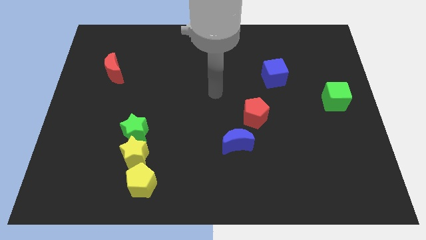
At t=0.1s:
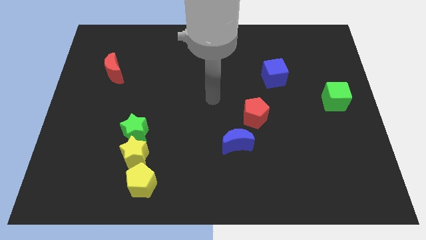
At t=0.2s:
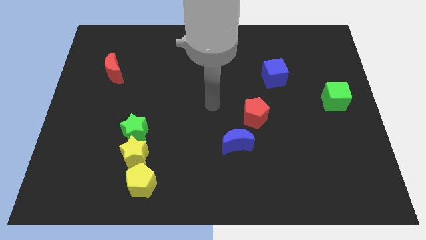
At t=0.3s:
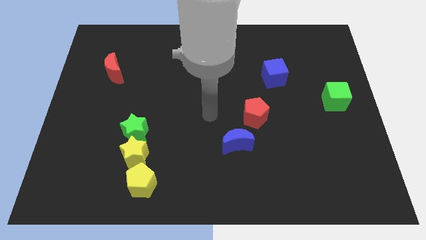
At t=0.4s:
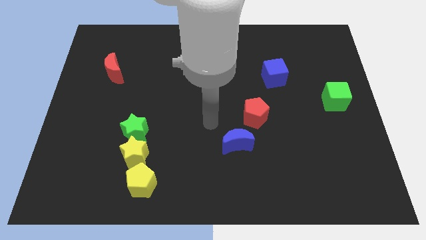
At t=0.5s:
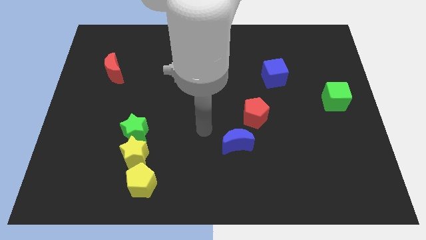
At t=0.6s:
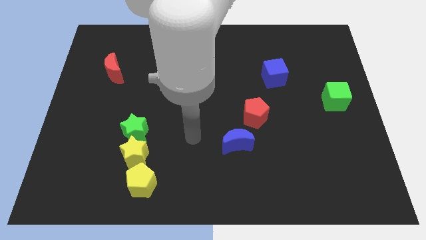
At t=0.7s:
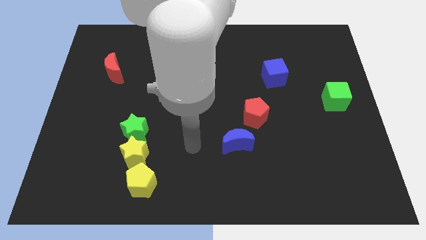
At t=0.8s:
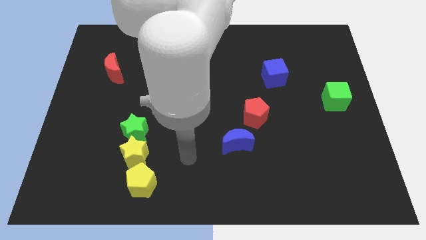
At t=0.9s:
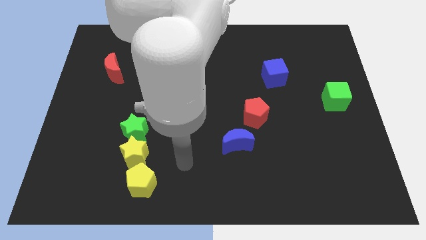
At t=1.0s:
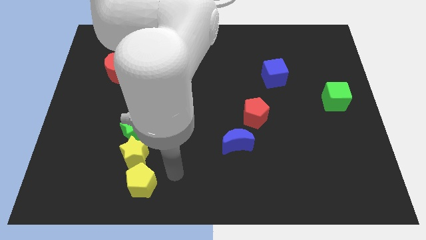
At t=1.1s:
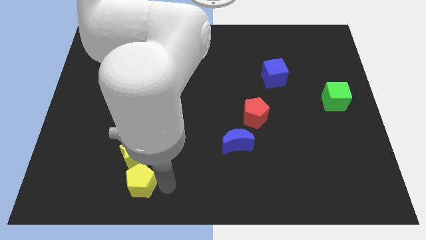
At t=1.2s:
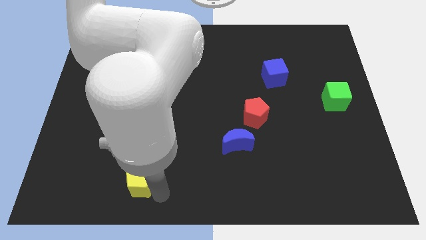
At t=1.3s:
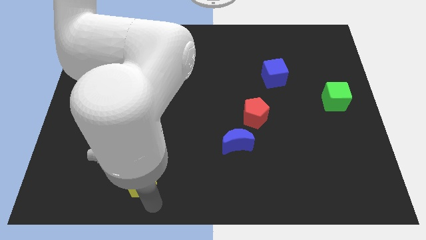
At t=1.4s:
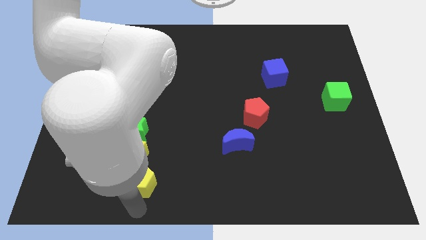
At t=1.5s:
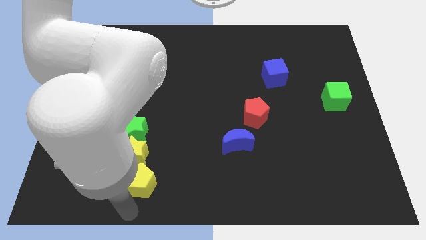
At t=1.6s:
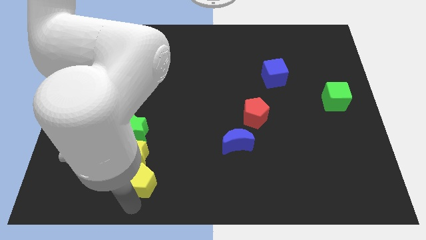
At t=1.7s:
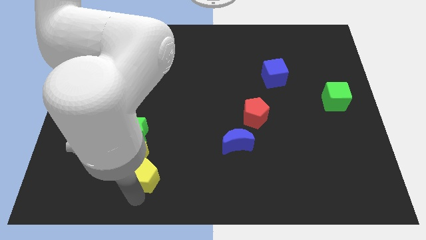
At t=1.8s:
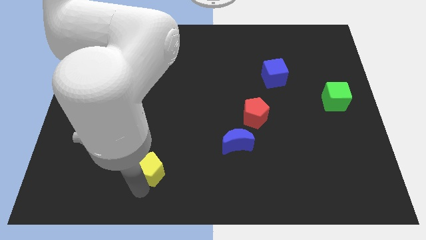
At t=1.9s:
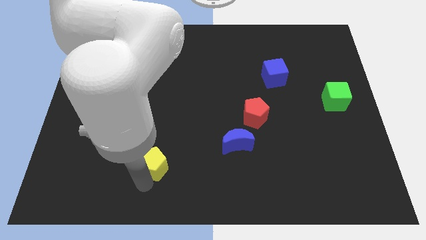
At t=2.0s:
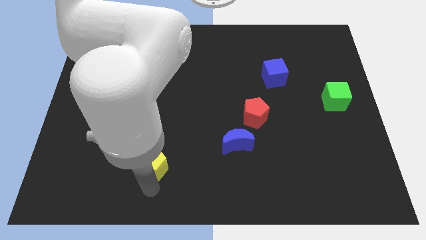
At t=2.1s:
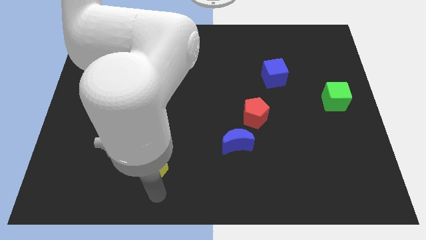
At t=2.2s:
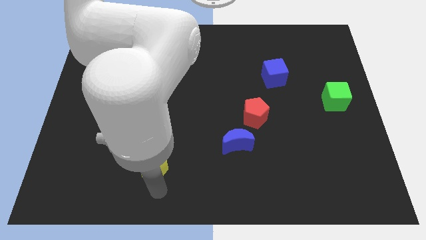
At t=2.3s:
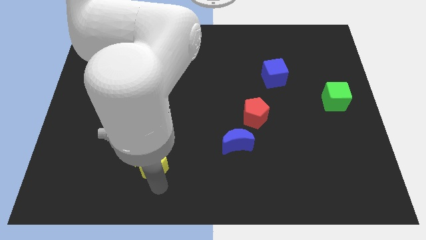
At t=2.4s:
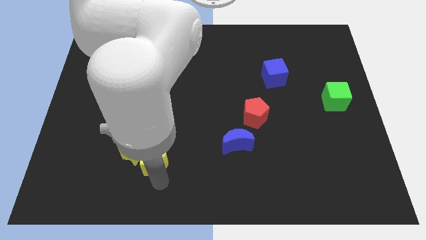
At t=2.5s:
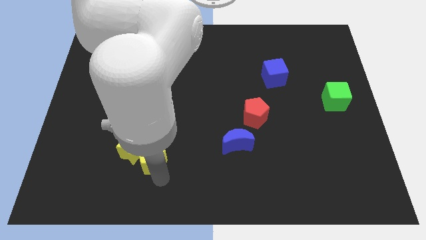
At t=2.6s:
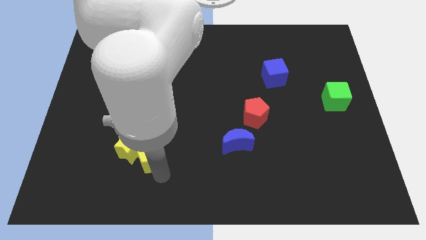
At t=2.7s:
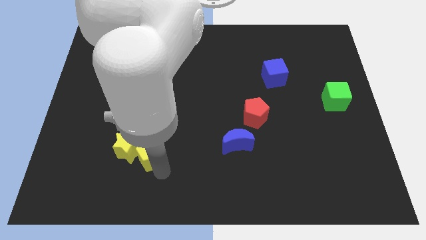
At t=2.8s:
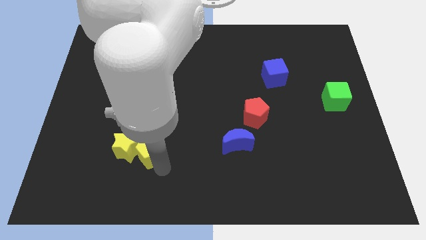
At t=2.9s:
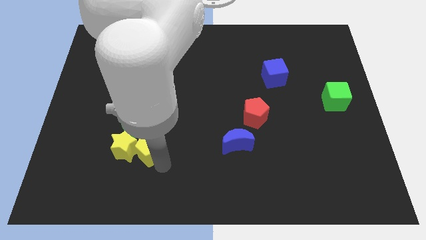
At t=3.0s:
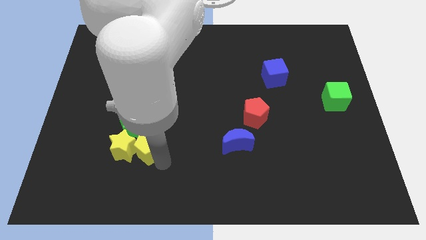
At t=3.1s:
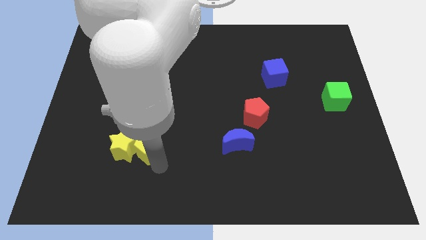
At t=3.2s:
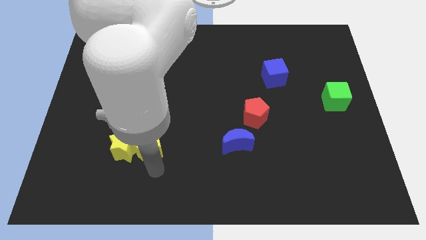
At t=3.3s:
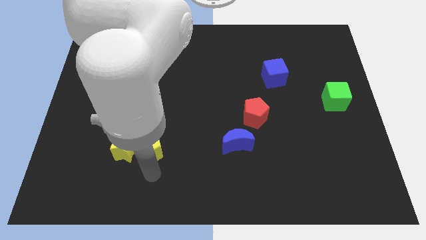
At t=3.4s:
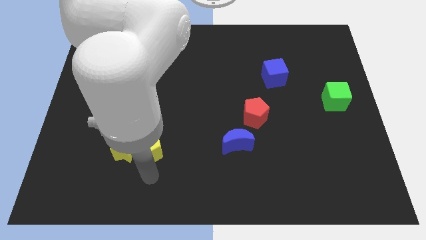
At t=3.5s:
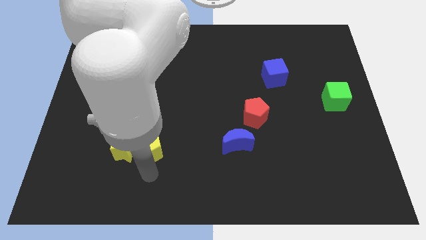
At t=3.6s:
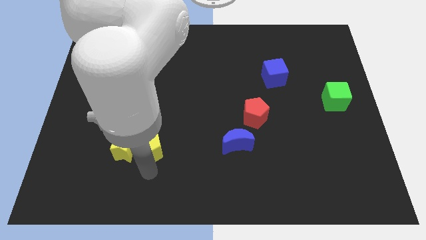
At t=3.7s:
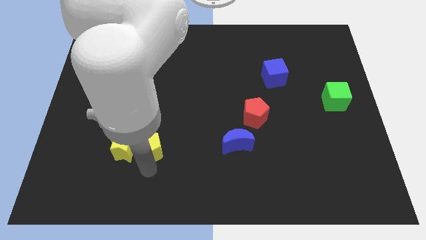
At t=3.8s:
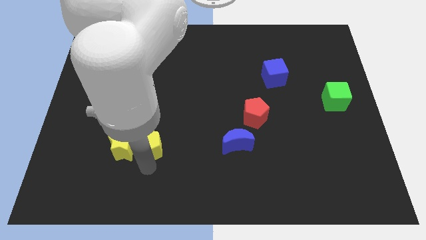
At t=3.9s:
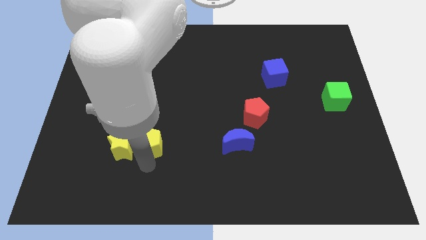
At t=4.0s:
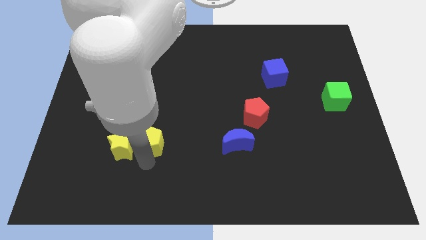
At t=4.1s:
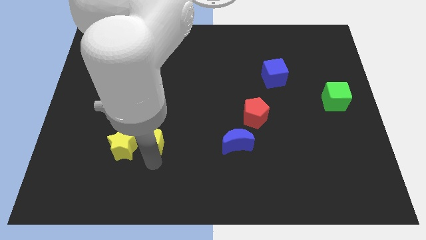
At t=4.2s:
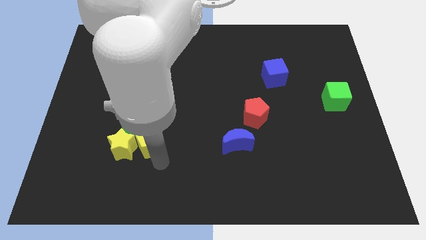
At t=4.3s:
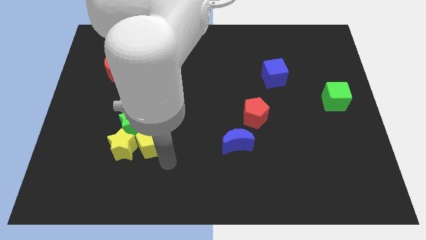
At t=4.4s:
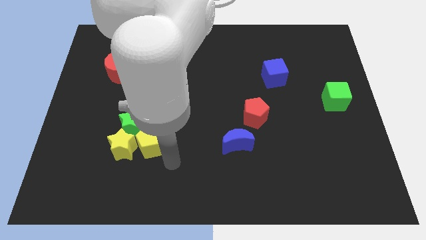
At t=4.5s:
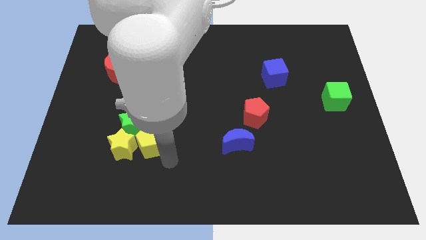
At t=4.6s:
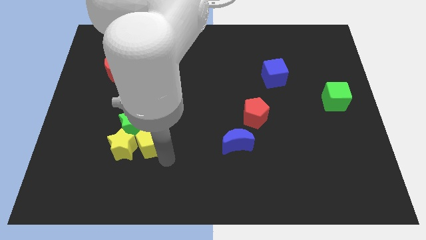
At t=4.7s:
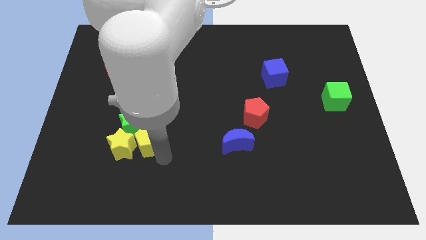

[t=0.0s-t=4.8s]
move the yellow pentagon next to the green star

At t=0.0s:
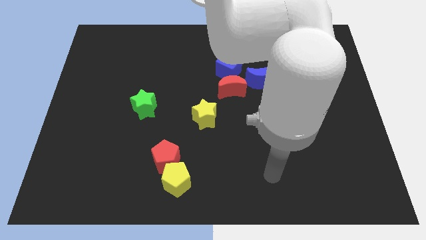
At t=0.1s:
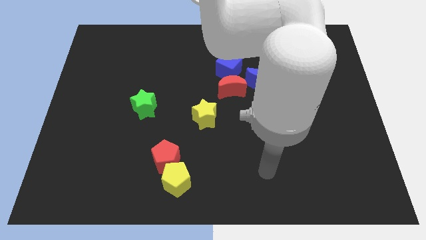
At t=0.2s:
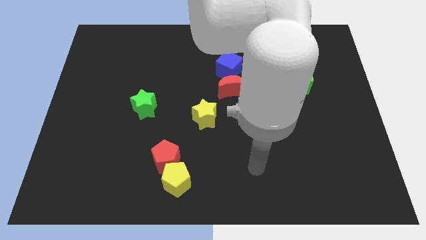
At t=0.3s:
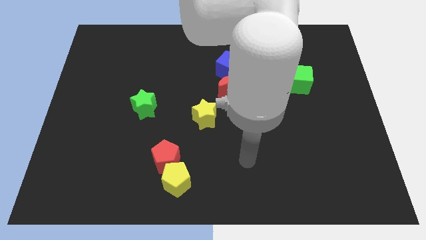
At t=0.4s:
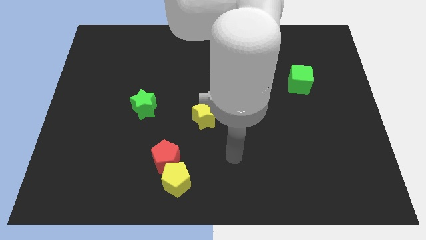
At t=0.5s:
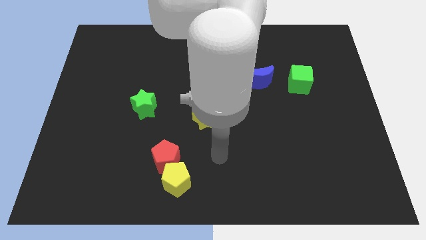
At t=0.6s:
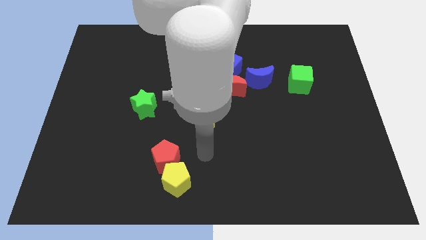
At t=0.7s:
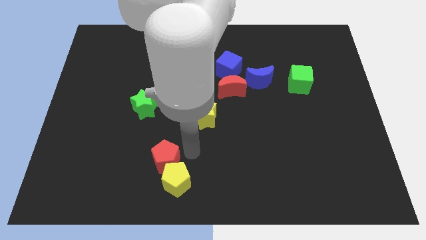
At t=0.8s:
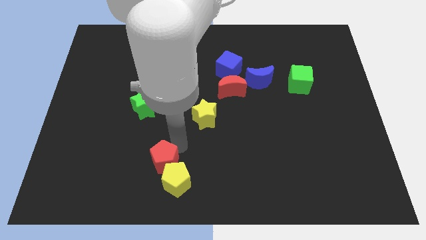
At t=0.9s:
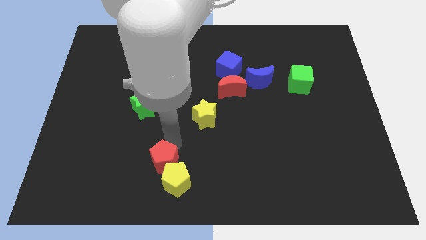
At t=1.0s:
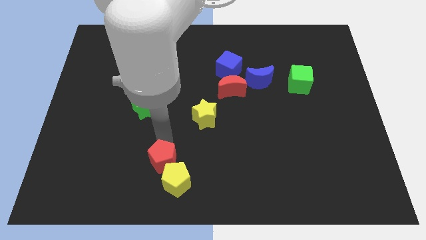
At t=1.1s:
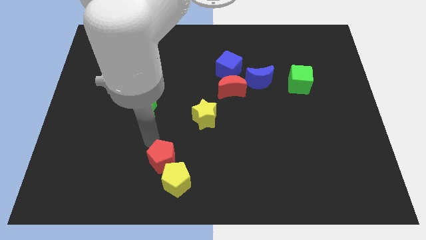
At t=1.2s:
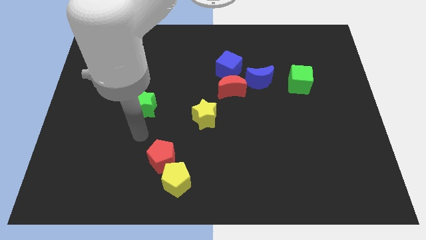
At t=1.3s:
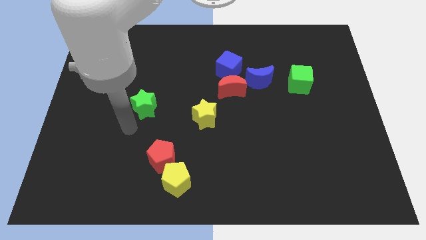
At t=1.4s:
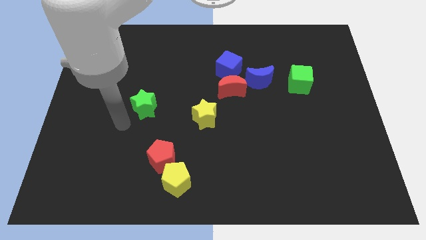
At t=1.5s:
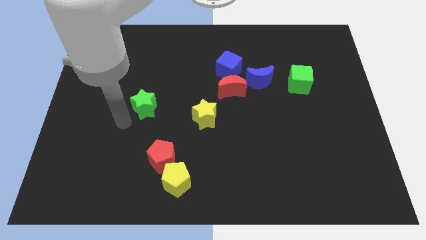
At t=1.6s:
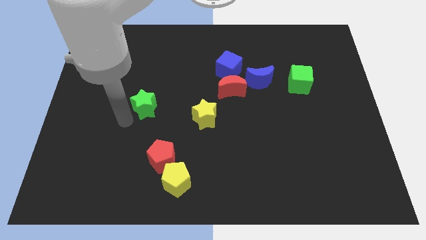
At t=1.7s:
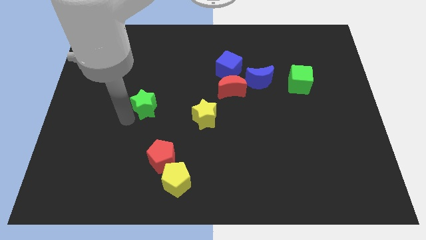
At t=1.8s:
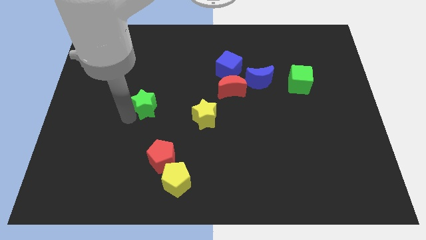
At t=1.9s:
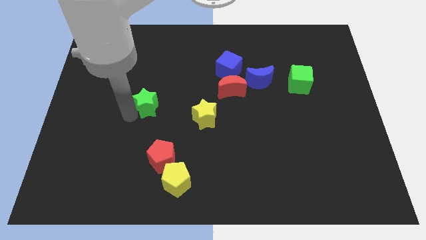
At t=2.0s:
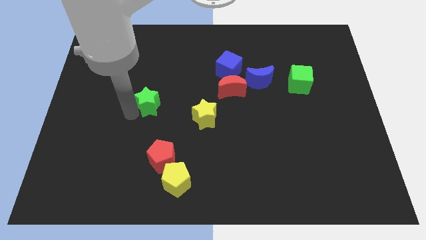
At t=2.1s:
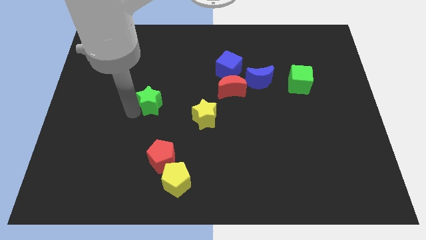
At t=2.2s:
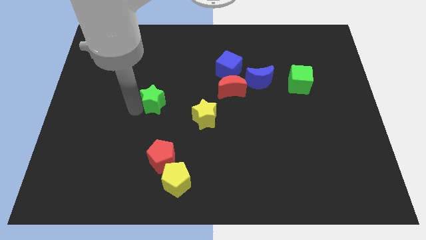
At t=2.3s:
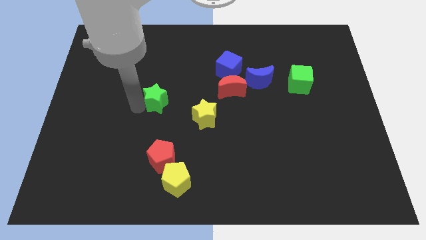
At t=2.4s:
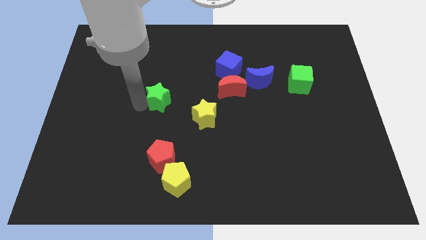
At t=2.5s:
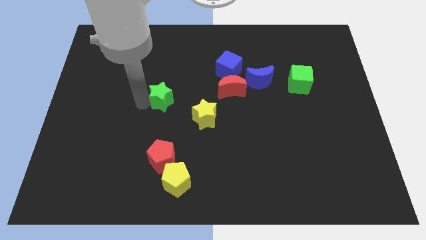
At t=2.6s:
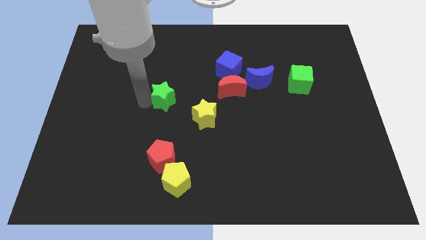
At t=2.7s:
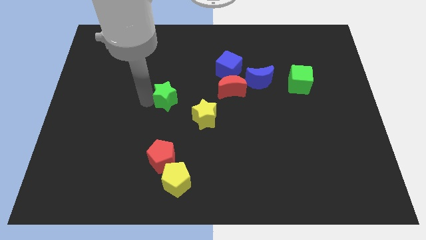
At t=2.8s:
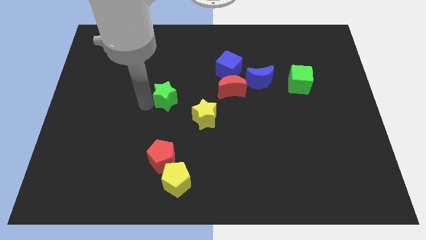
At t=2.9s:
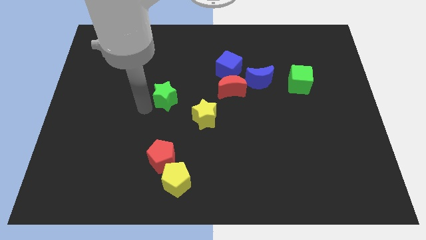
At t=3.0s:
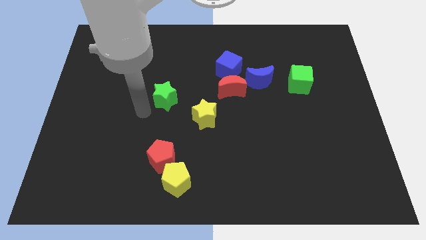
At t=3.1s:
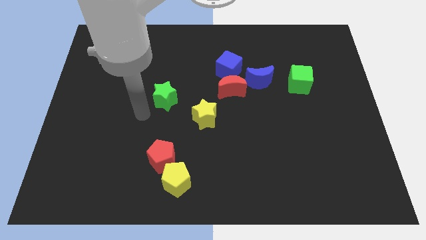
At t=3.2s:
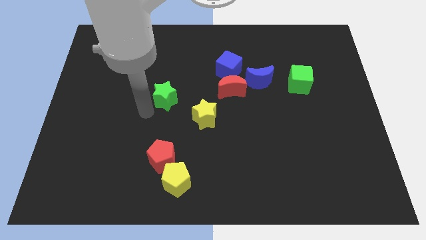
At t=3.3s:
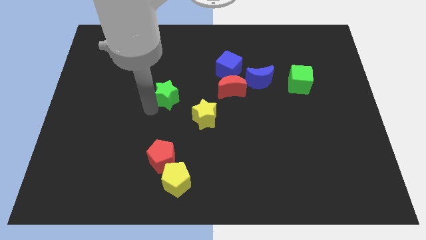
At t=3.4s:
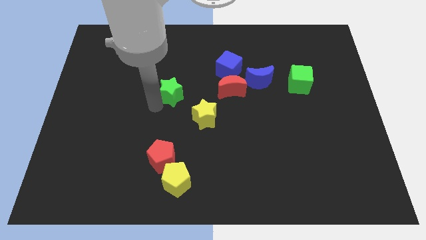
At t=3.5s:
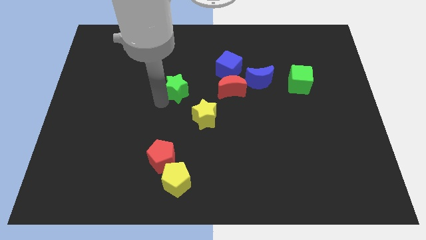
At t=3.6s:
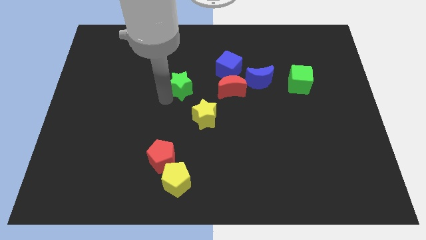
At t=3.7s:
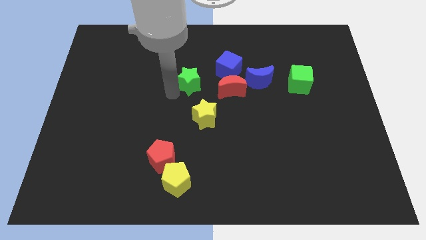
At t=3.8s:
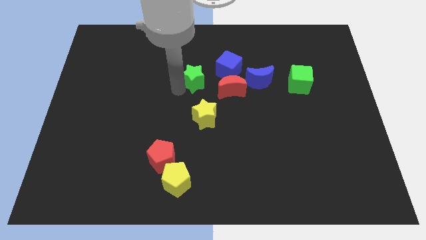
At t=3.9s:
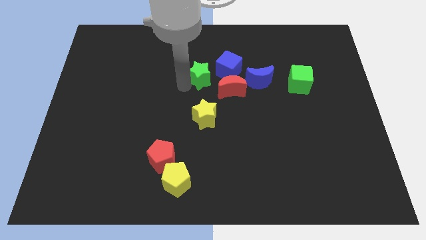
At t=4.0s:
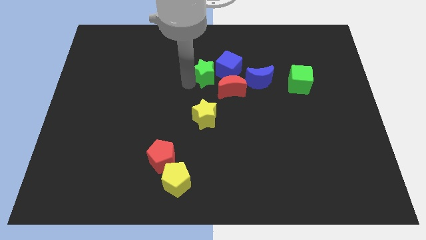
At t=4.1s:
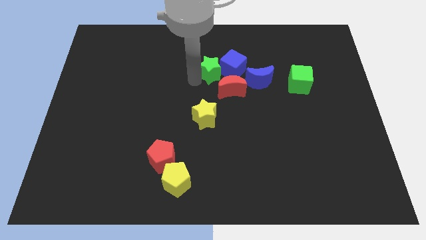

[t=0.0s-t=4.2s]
put the green star towards the blue cube
